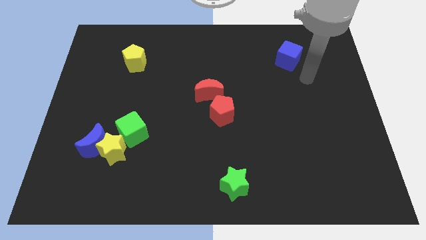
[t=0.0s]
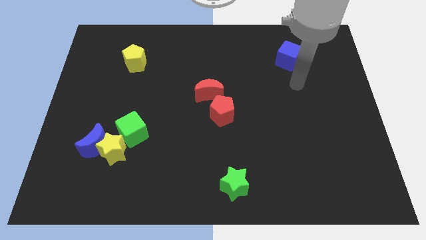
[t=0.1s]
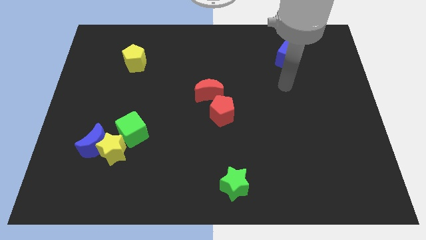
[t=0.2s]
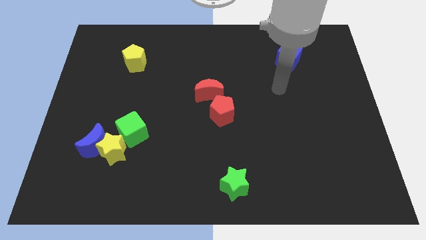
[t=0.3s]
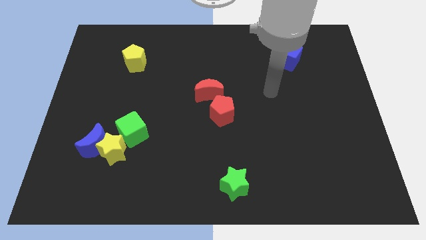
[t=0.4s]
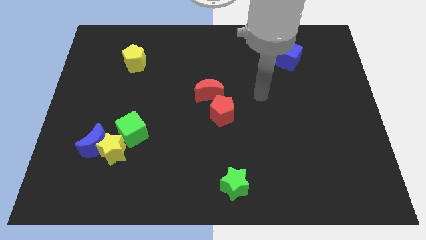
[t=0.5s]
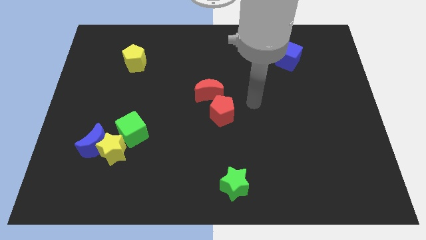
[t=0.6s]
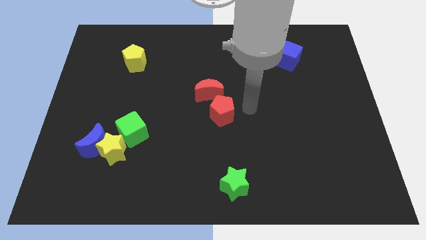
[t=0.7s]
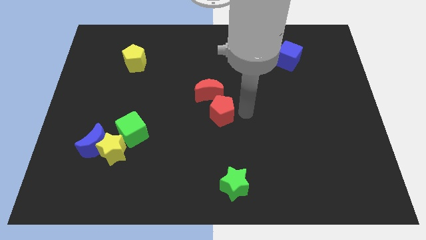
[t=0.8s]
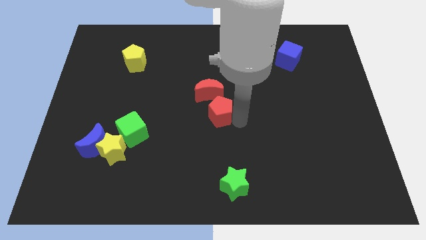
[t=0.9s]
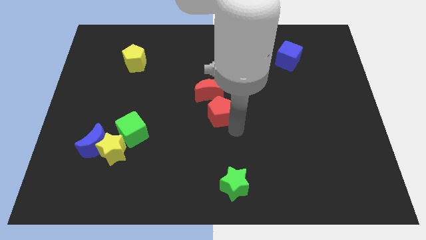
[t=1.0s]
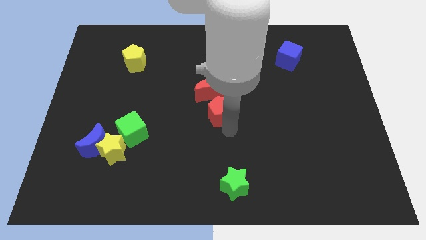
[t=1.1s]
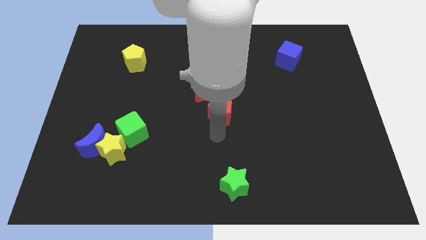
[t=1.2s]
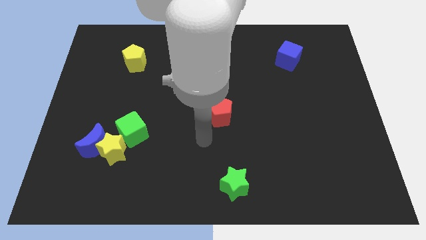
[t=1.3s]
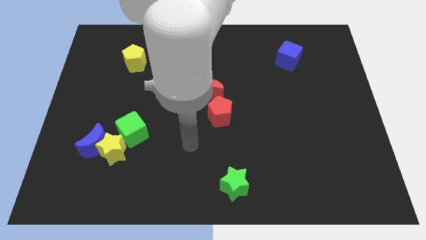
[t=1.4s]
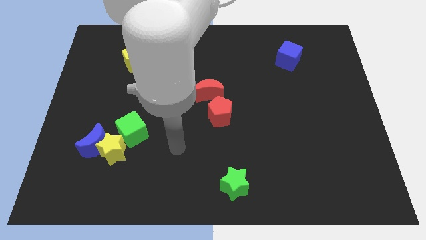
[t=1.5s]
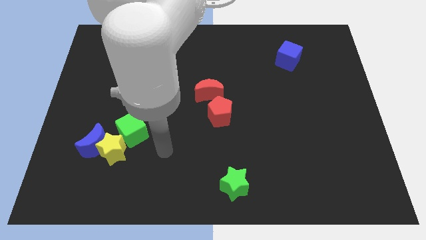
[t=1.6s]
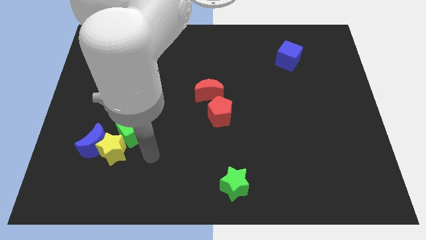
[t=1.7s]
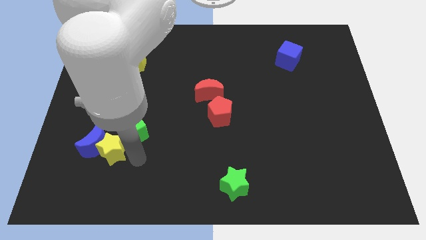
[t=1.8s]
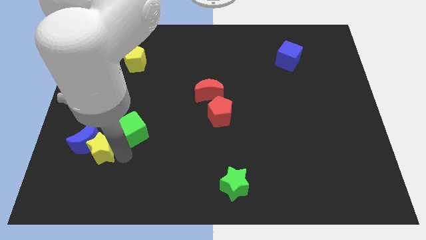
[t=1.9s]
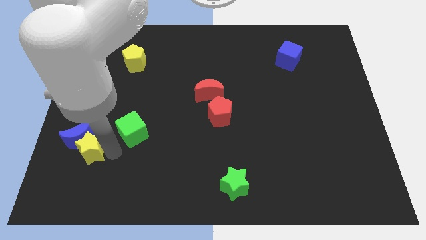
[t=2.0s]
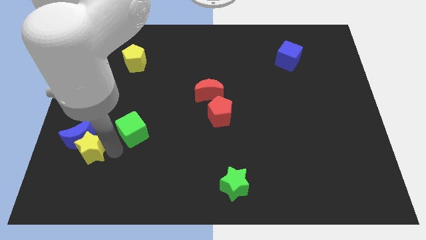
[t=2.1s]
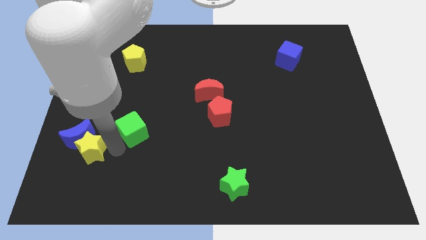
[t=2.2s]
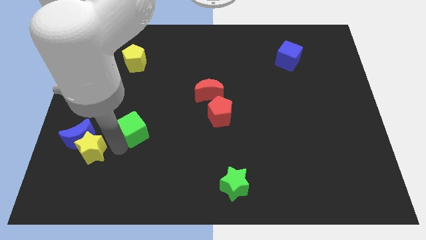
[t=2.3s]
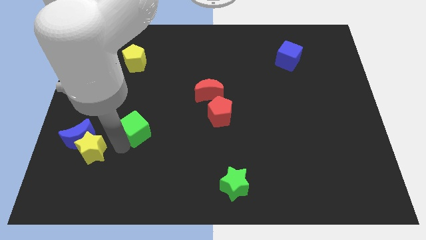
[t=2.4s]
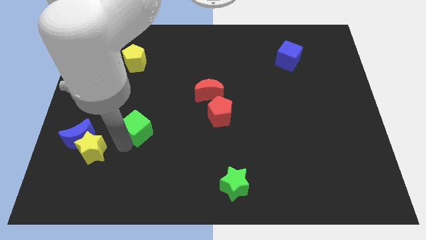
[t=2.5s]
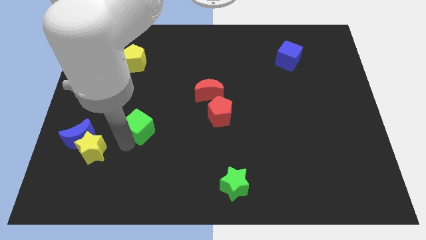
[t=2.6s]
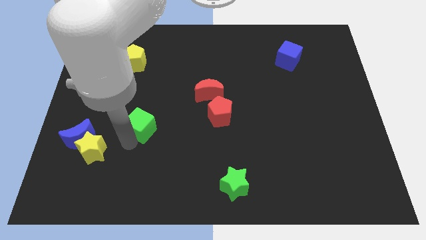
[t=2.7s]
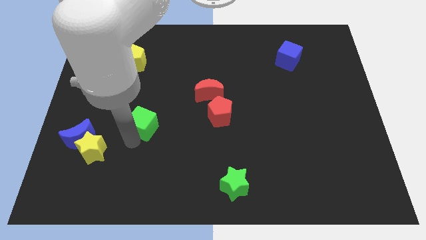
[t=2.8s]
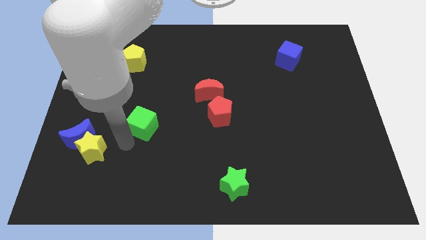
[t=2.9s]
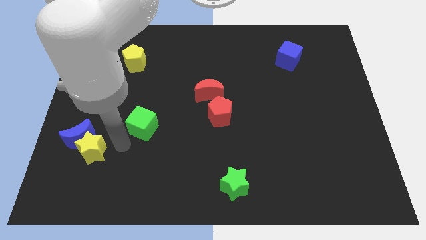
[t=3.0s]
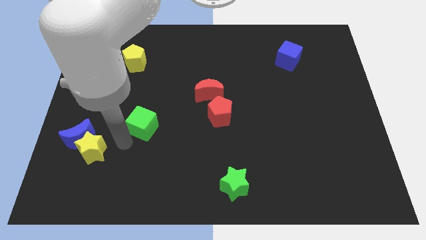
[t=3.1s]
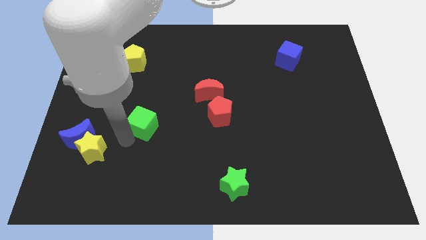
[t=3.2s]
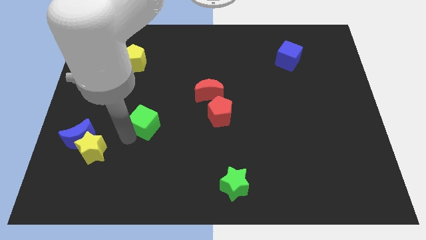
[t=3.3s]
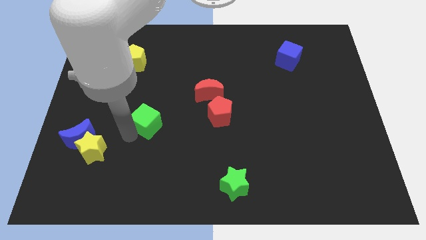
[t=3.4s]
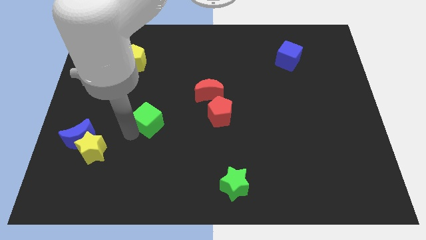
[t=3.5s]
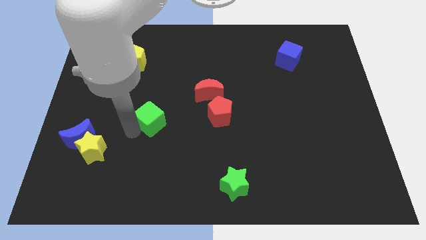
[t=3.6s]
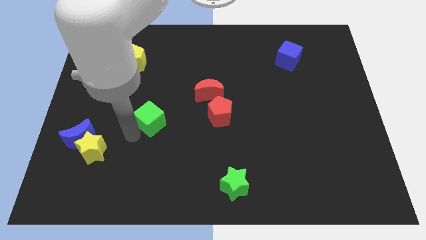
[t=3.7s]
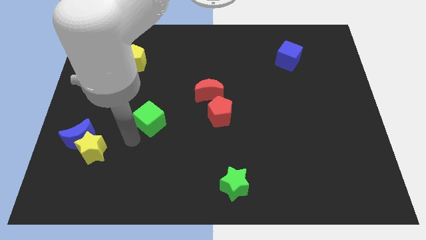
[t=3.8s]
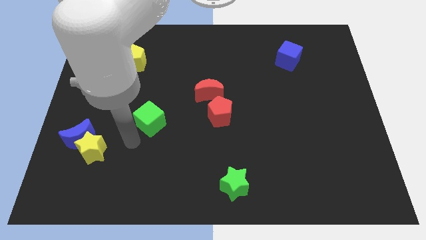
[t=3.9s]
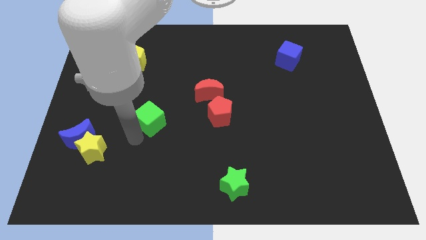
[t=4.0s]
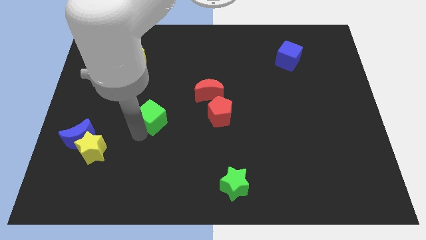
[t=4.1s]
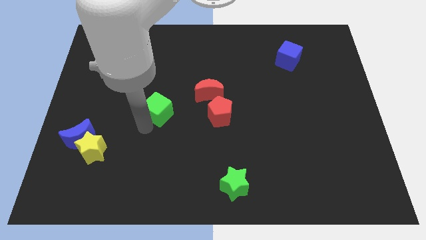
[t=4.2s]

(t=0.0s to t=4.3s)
move the green cube somewhat upwards and to the right diagonally

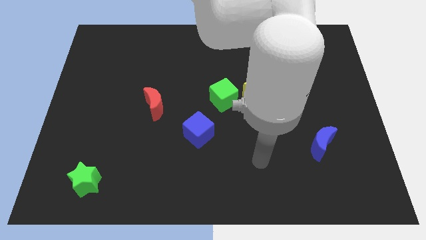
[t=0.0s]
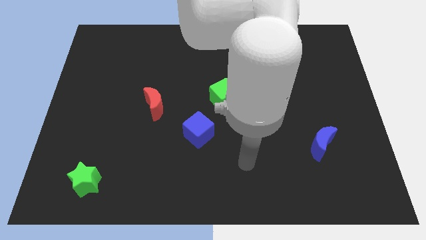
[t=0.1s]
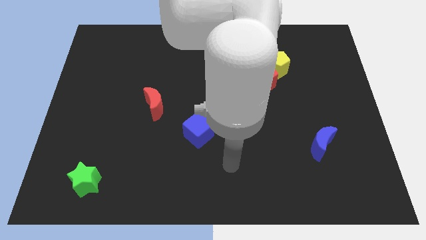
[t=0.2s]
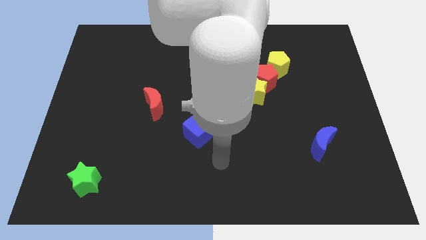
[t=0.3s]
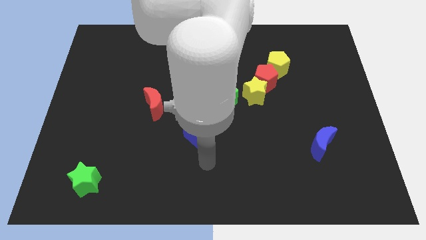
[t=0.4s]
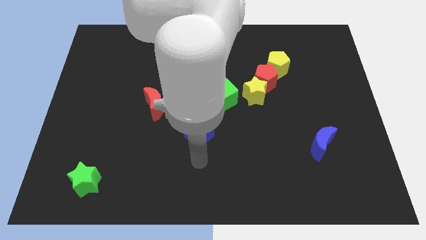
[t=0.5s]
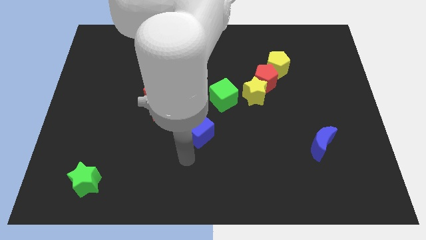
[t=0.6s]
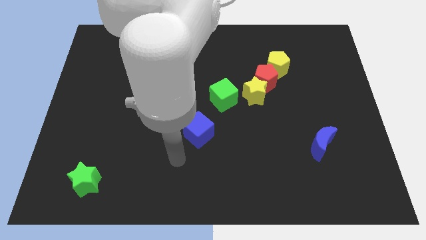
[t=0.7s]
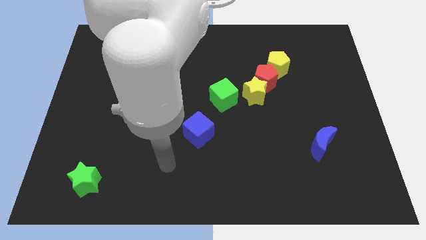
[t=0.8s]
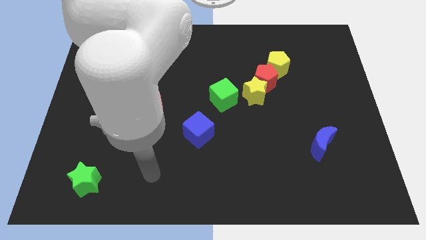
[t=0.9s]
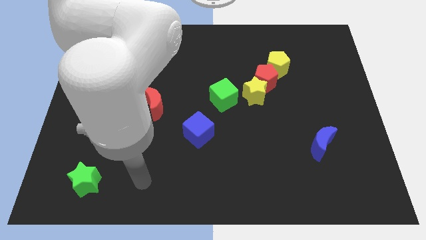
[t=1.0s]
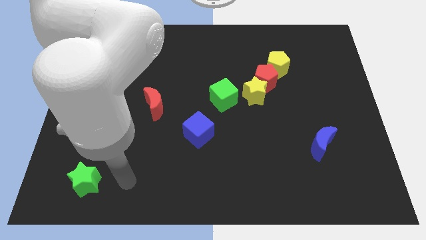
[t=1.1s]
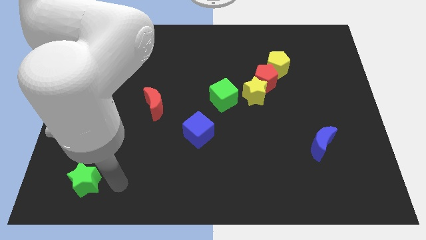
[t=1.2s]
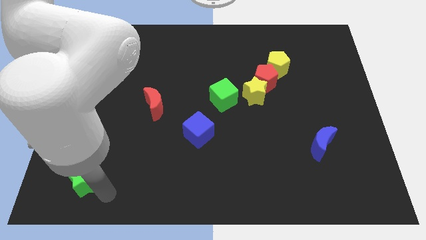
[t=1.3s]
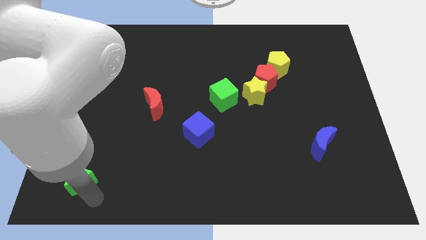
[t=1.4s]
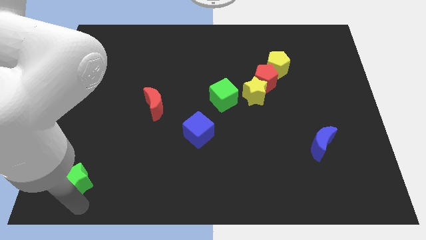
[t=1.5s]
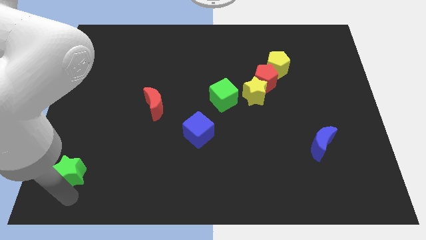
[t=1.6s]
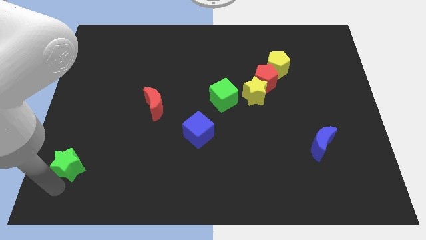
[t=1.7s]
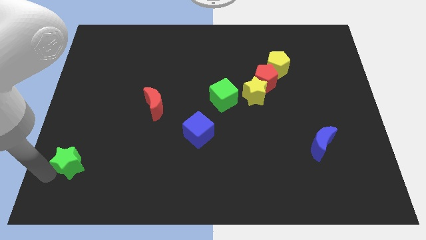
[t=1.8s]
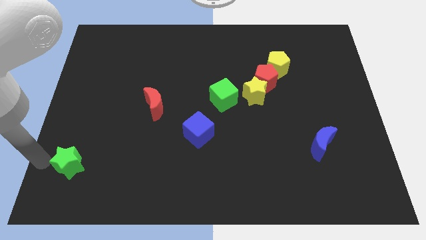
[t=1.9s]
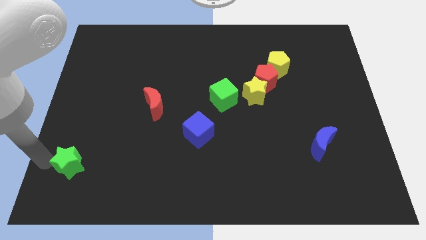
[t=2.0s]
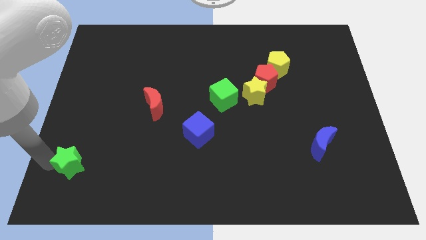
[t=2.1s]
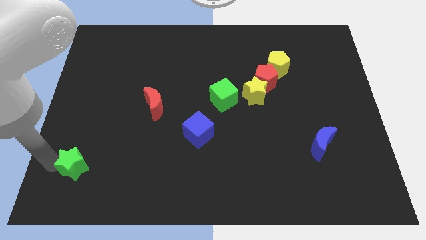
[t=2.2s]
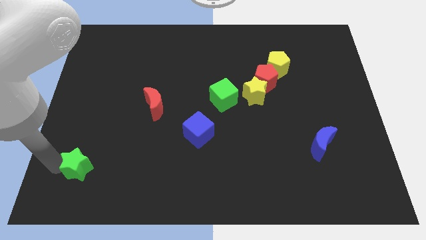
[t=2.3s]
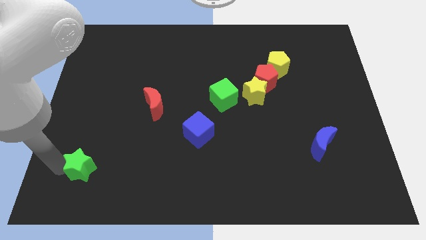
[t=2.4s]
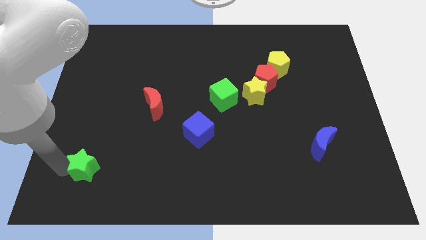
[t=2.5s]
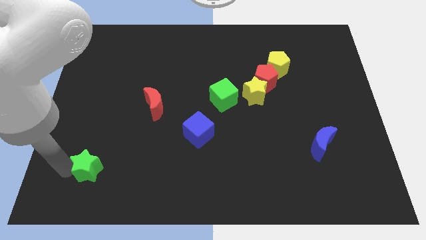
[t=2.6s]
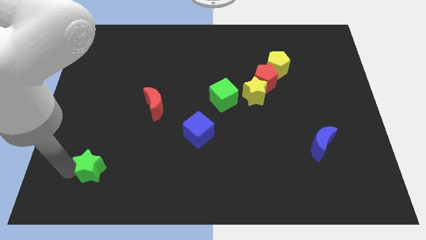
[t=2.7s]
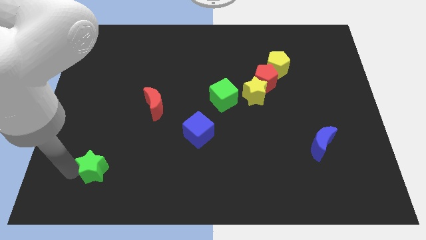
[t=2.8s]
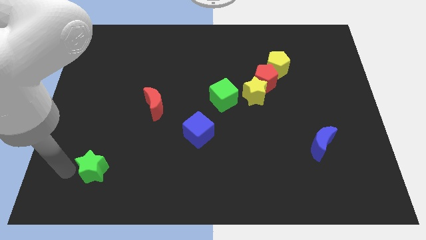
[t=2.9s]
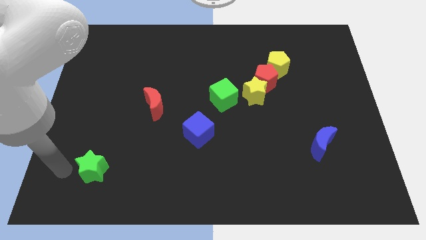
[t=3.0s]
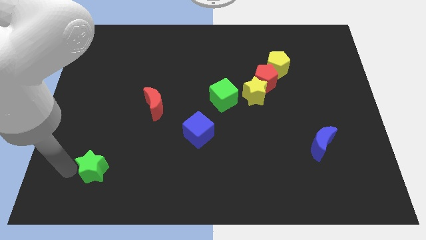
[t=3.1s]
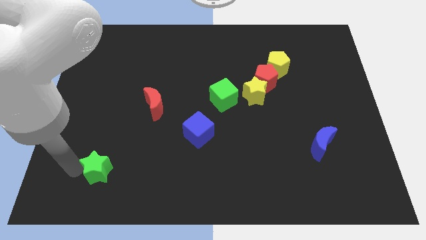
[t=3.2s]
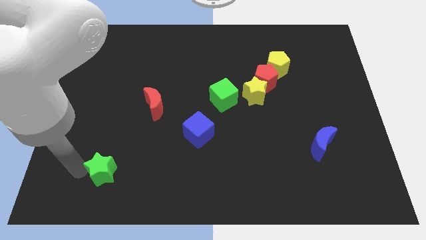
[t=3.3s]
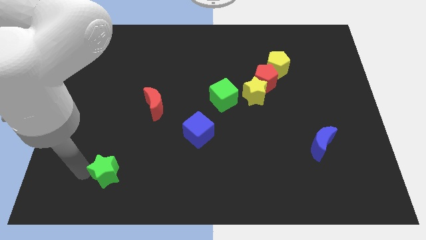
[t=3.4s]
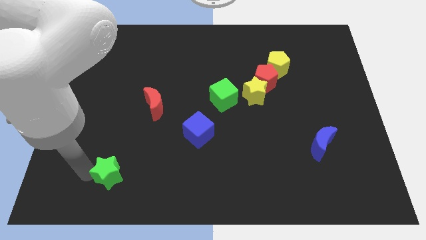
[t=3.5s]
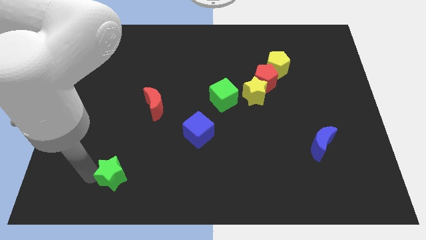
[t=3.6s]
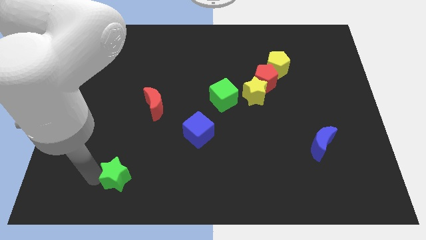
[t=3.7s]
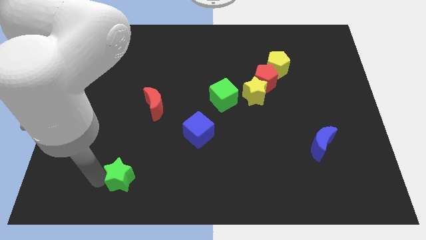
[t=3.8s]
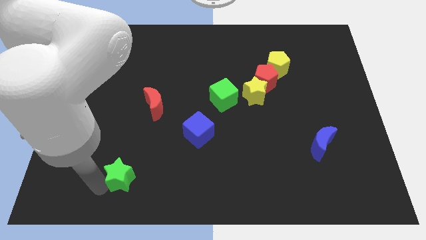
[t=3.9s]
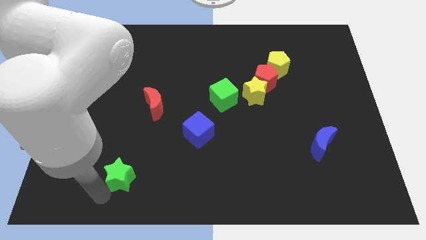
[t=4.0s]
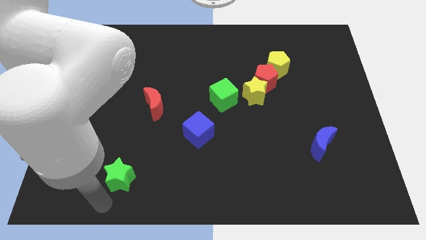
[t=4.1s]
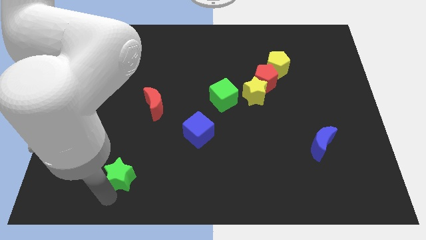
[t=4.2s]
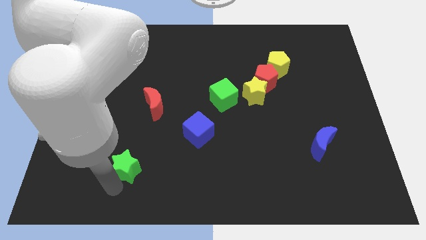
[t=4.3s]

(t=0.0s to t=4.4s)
push the green star up and then right slightly
